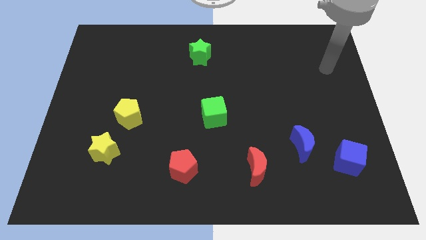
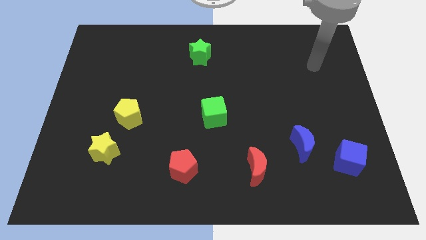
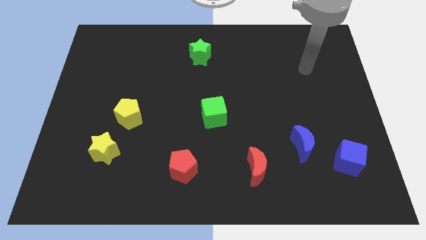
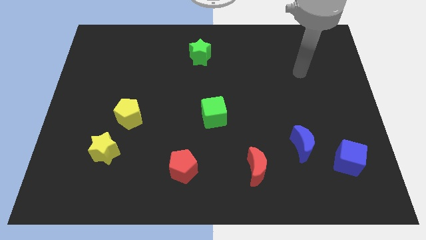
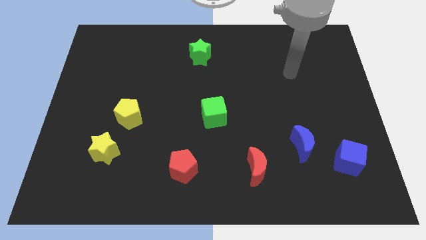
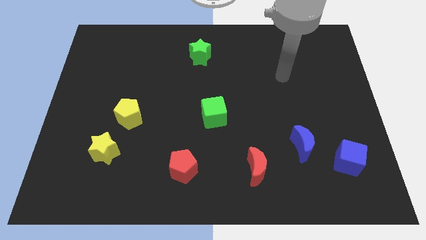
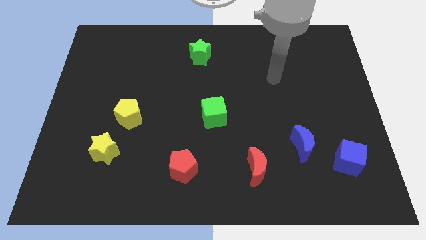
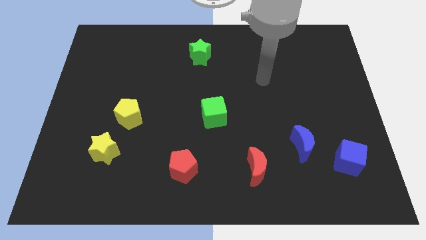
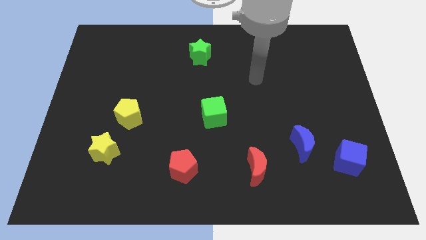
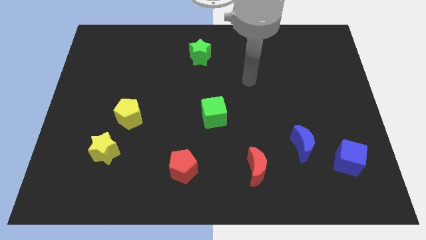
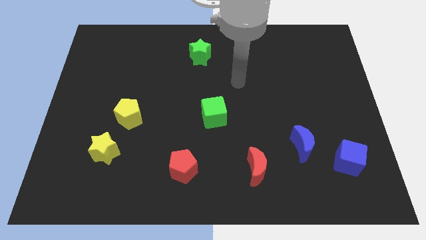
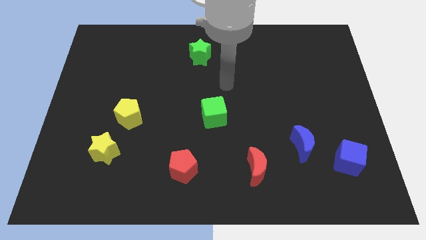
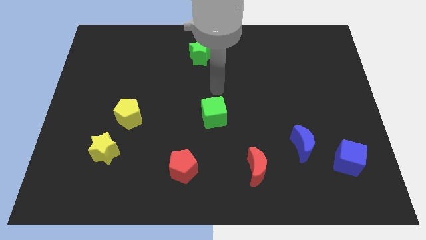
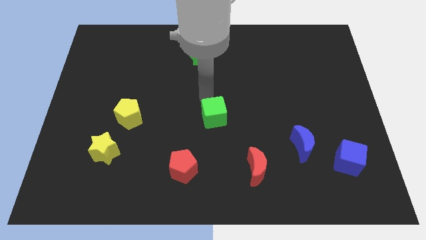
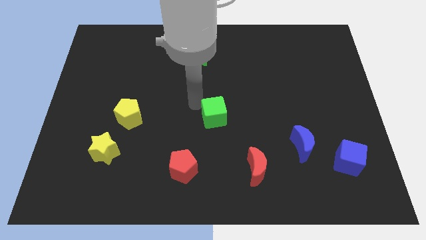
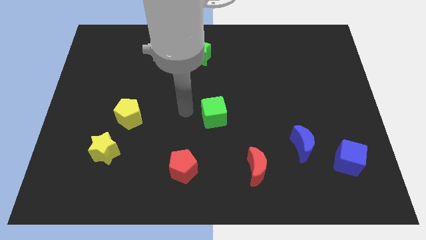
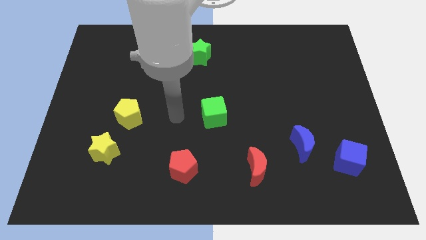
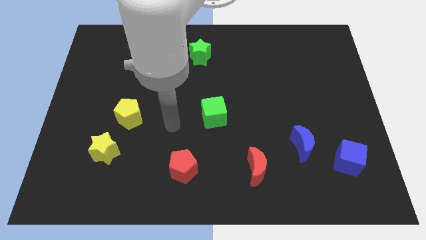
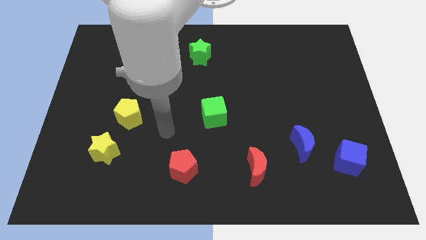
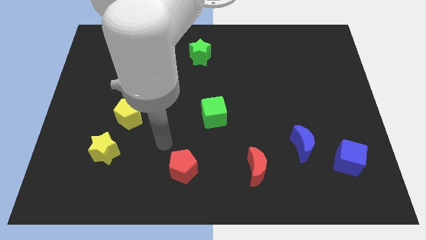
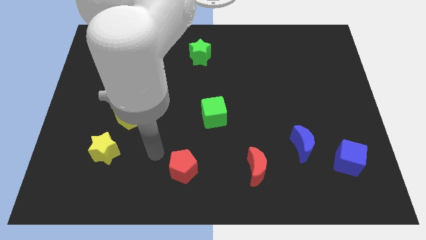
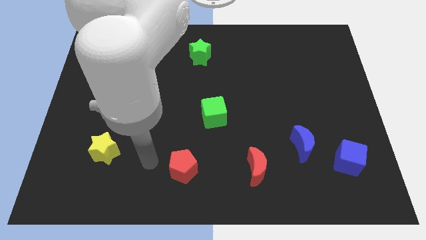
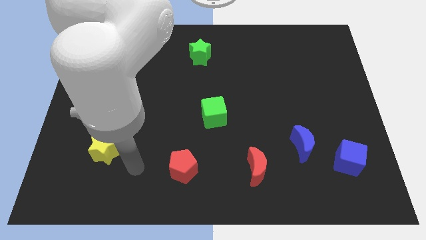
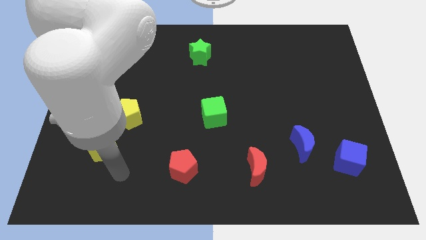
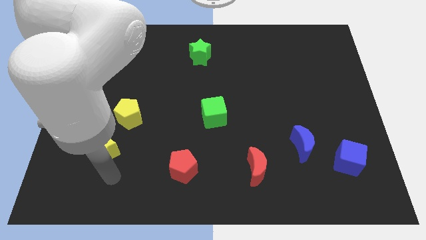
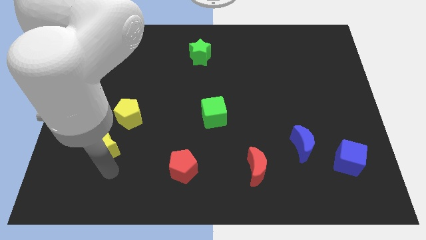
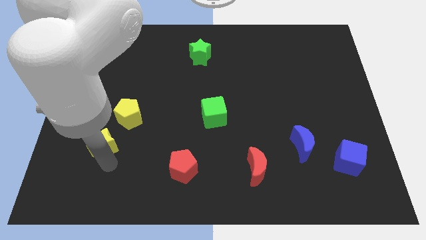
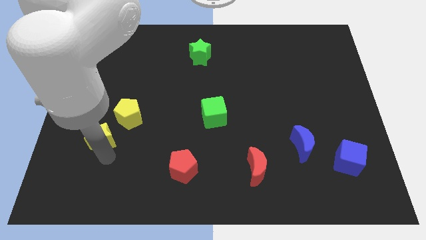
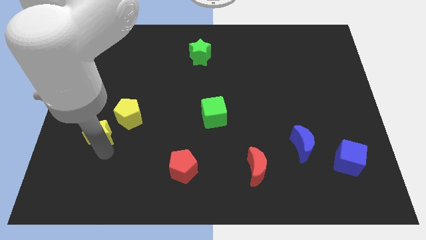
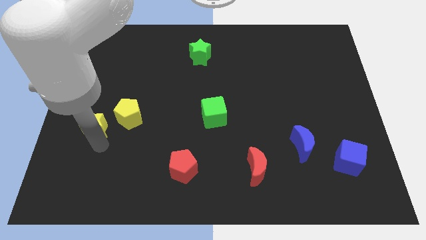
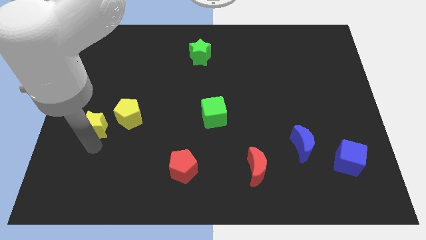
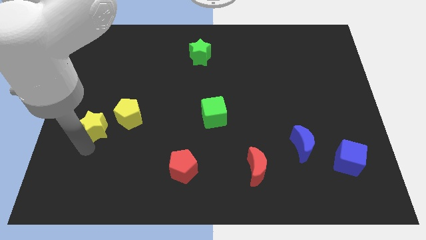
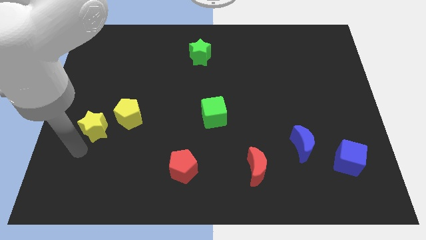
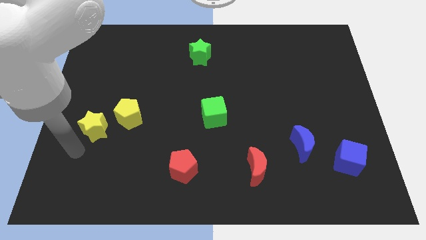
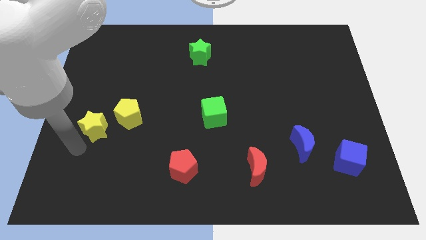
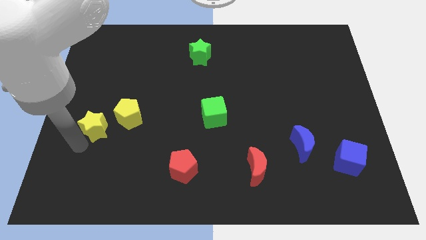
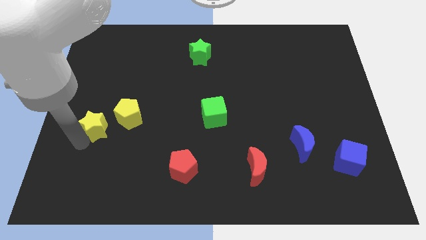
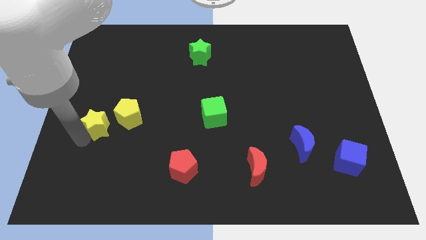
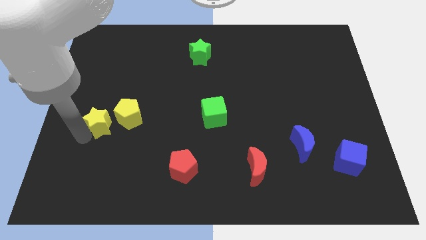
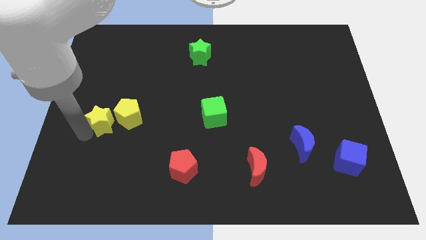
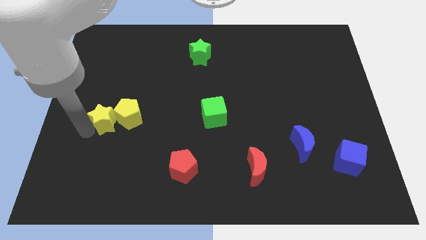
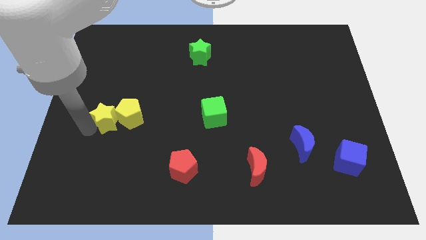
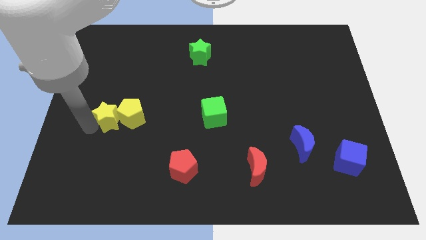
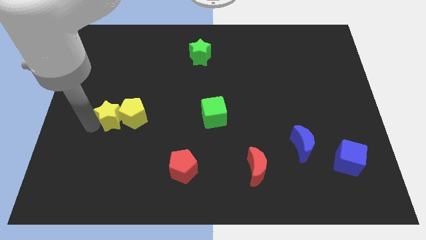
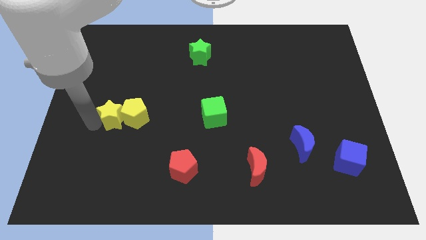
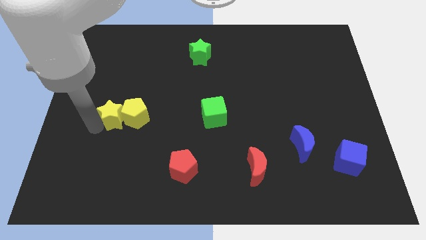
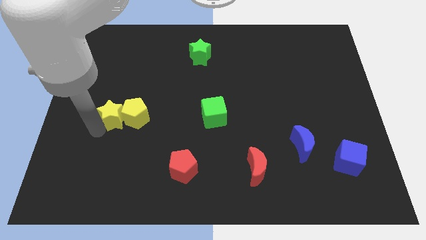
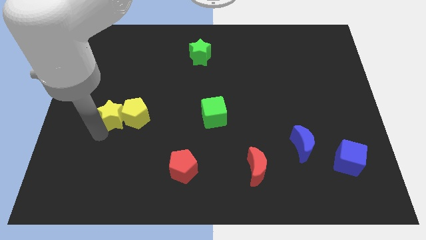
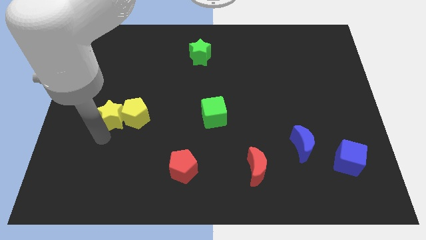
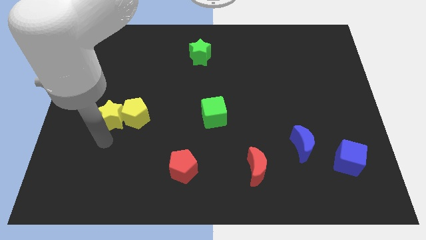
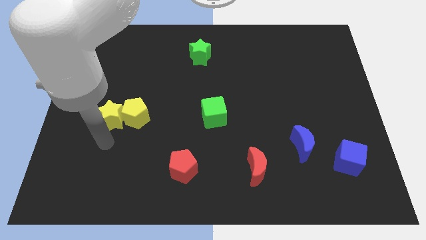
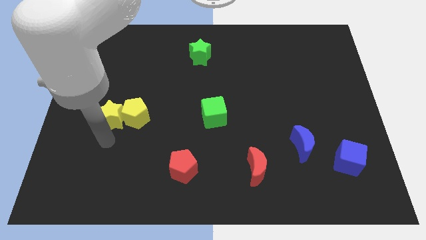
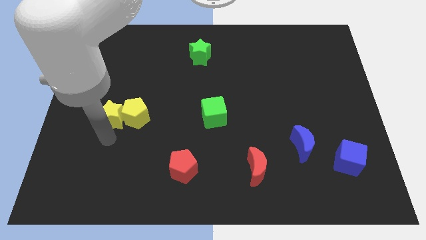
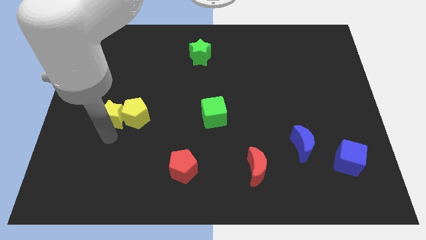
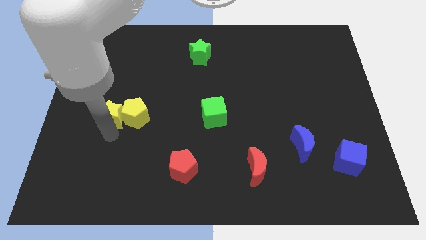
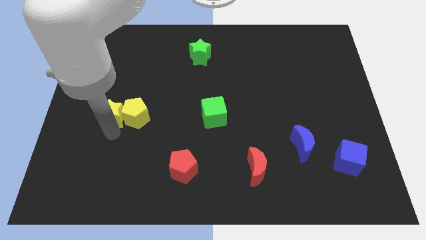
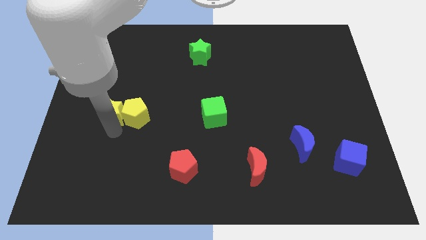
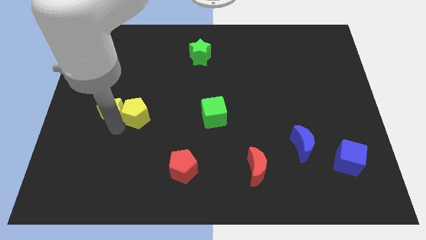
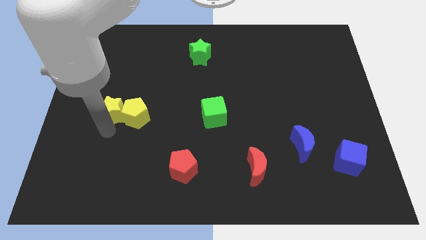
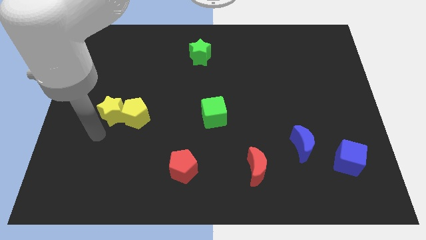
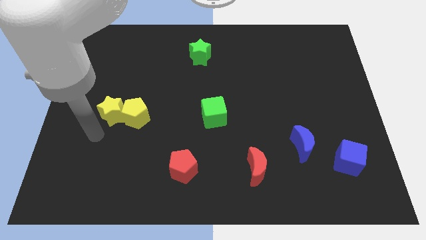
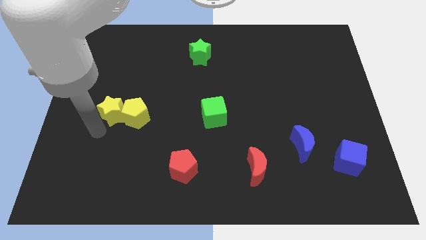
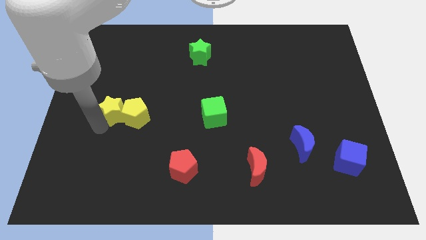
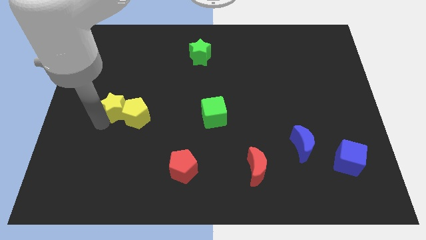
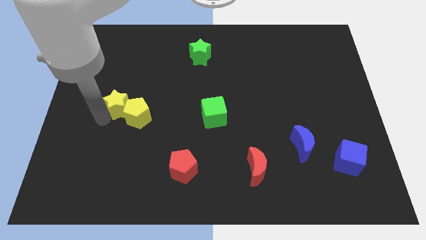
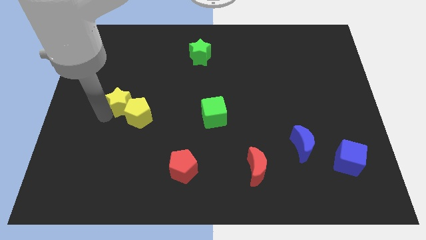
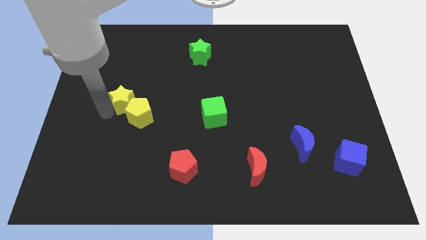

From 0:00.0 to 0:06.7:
slide the yellow star above the yellow pentagon

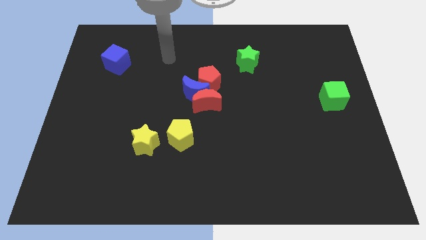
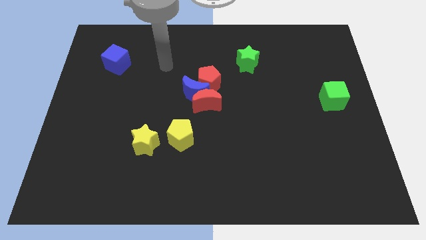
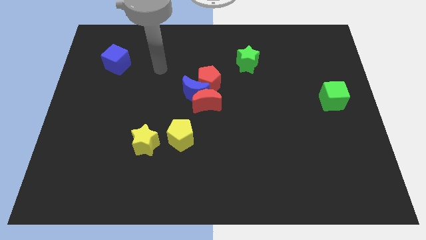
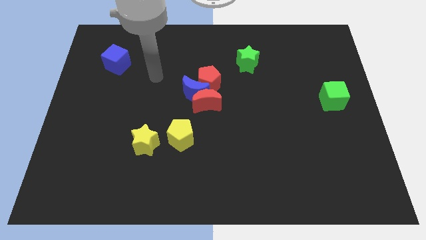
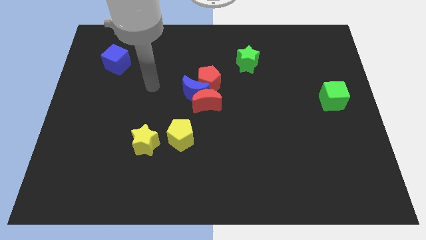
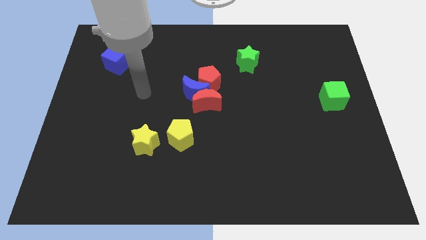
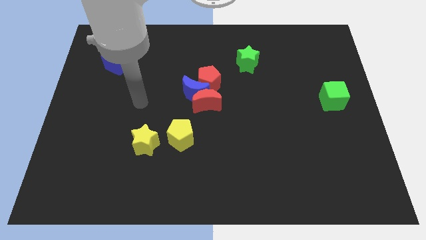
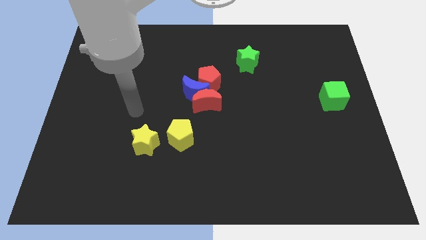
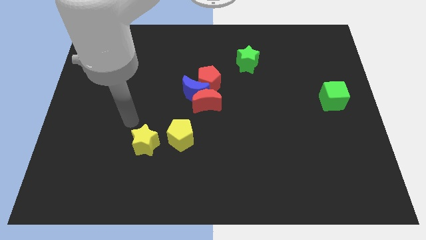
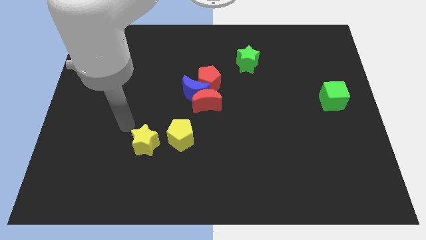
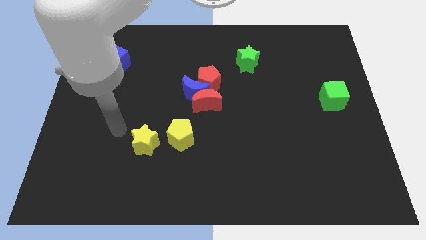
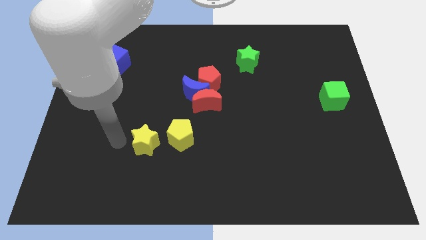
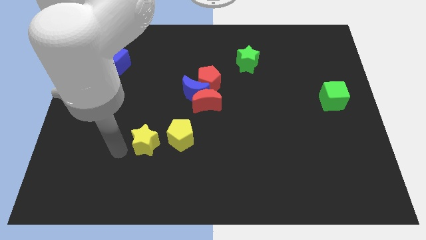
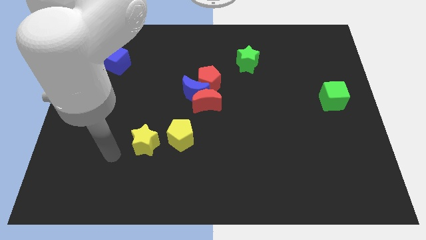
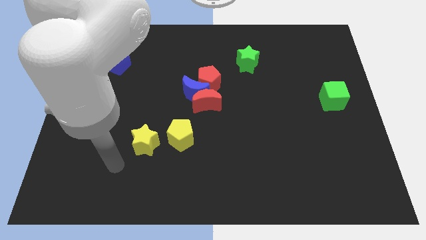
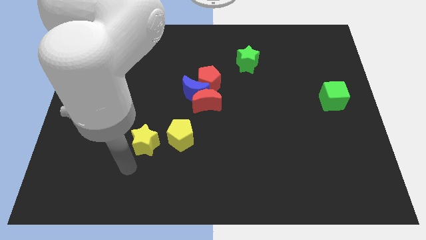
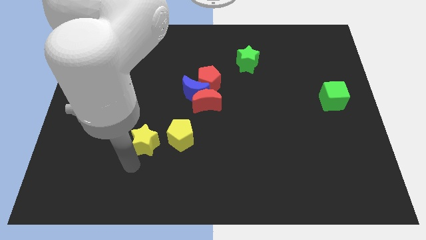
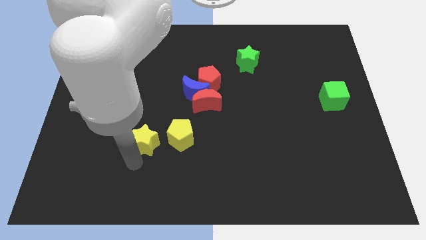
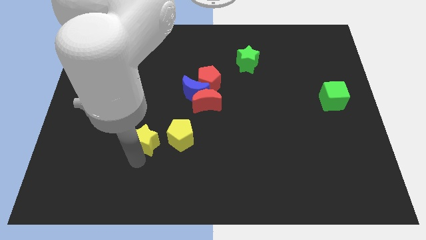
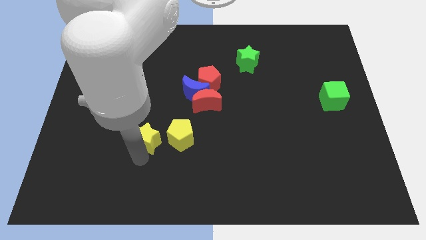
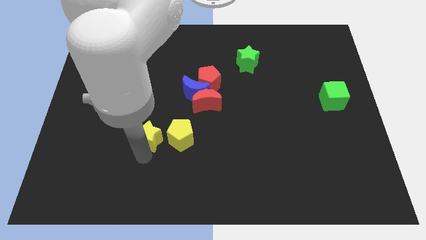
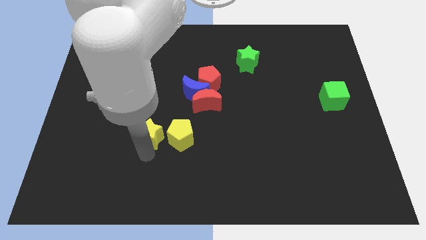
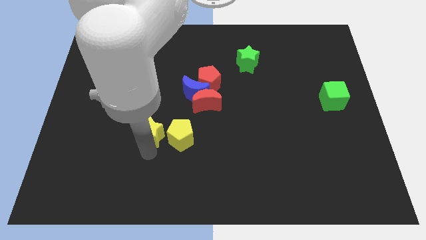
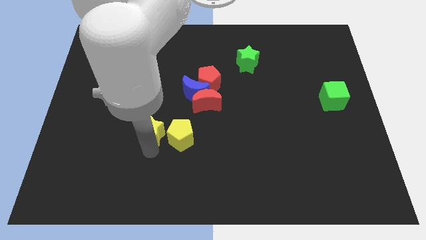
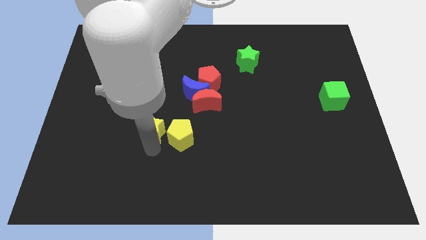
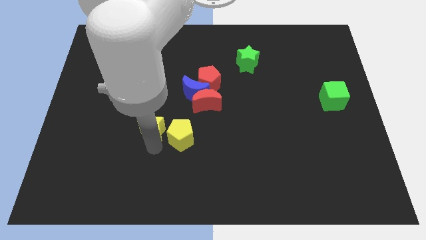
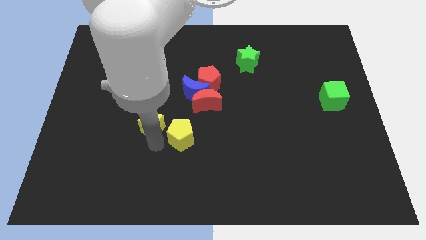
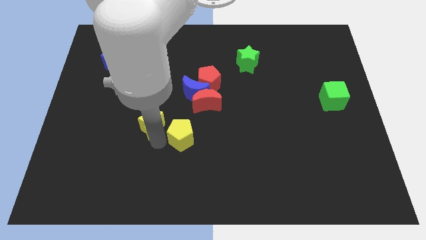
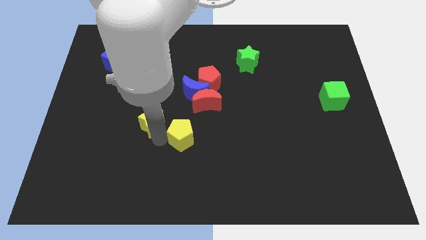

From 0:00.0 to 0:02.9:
push the yellow star to the bottom left of the blue moon
